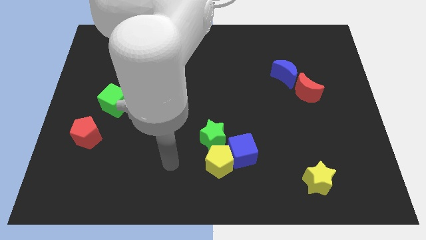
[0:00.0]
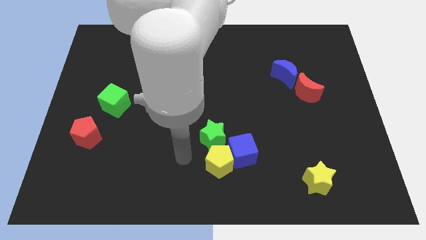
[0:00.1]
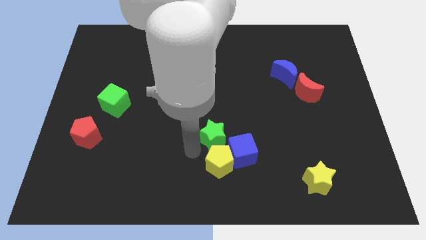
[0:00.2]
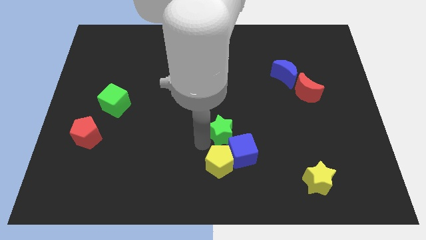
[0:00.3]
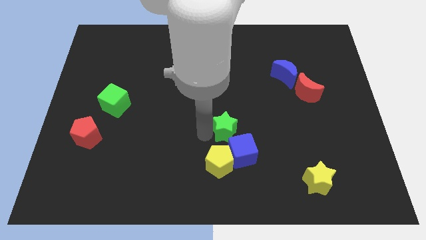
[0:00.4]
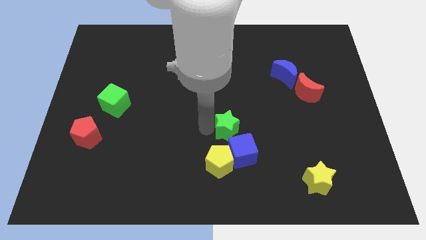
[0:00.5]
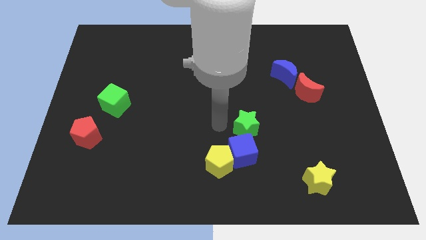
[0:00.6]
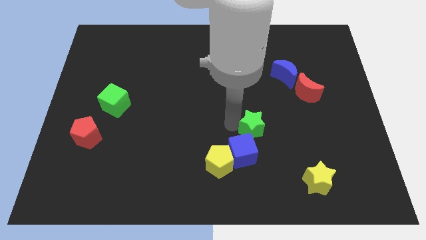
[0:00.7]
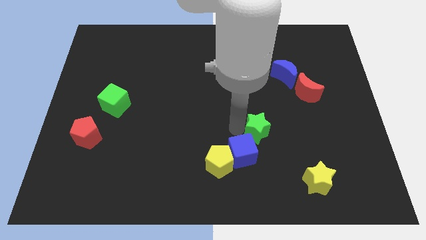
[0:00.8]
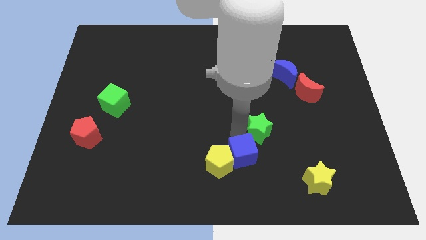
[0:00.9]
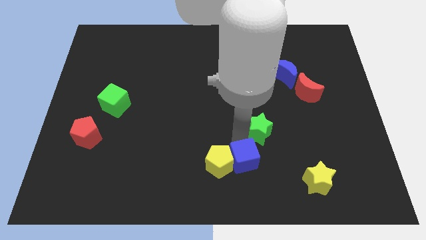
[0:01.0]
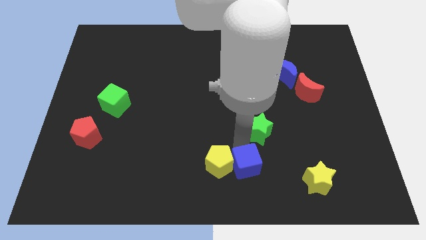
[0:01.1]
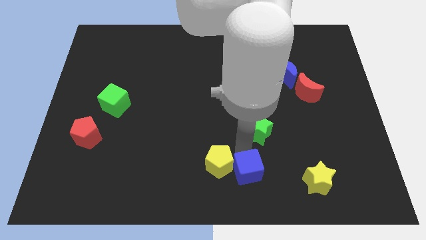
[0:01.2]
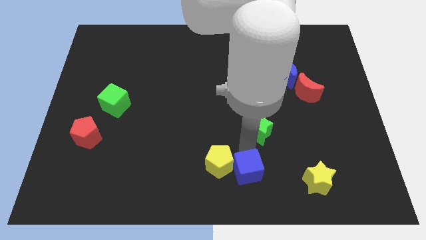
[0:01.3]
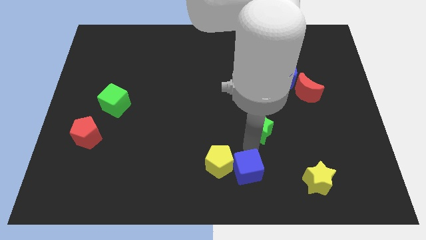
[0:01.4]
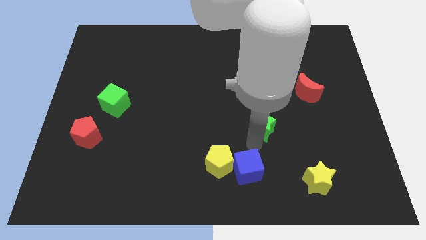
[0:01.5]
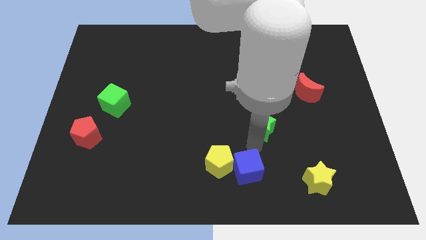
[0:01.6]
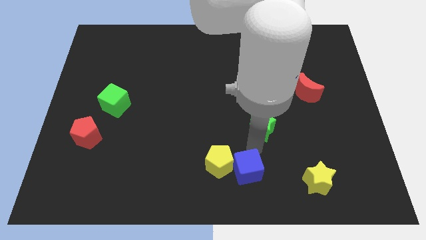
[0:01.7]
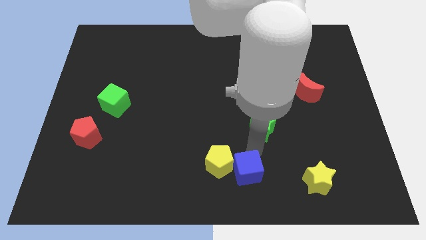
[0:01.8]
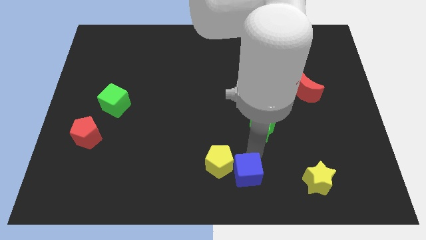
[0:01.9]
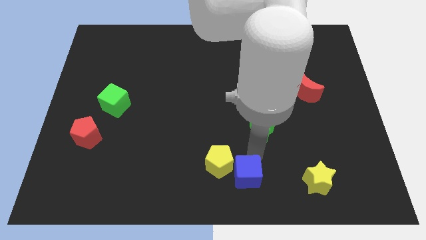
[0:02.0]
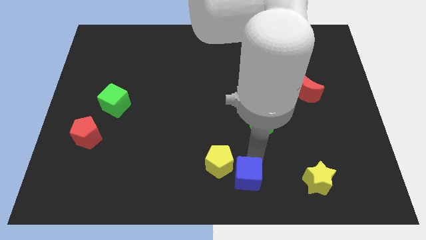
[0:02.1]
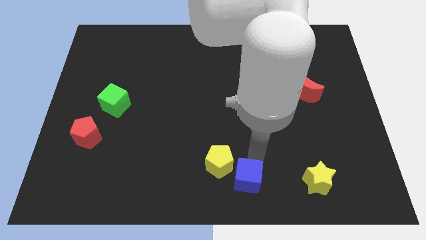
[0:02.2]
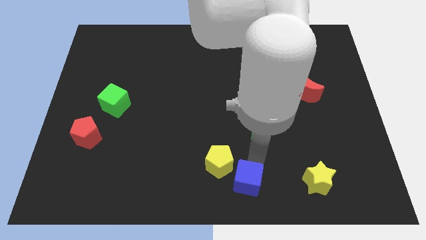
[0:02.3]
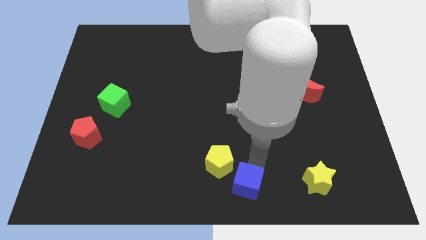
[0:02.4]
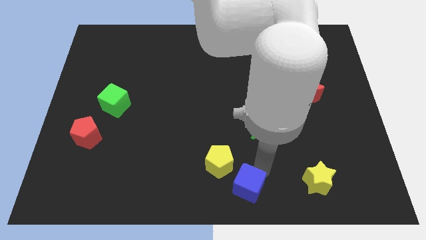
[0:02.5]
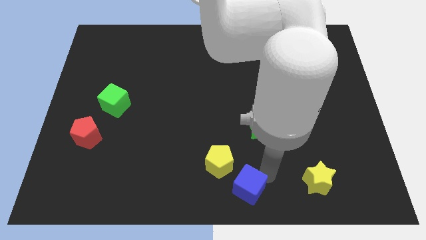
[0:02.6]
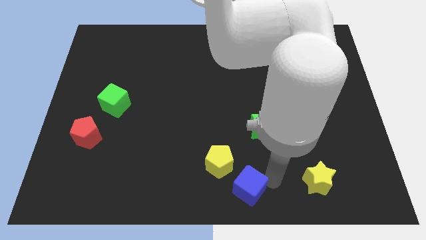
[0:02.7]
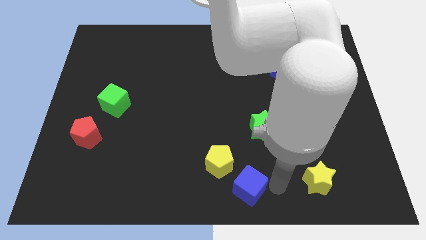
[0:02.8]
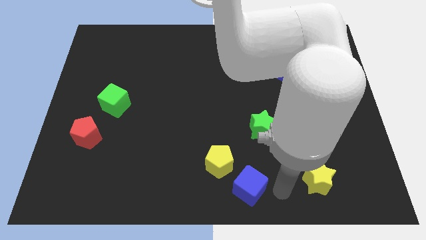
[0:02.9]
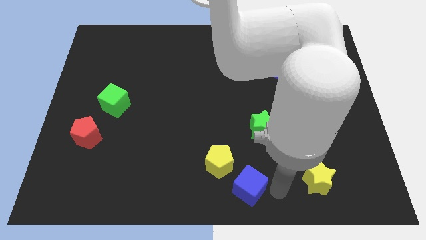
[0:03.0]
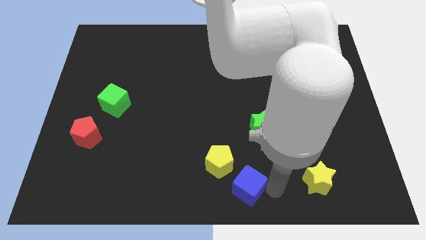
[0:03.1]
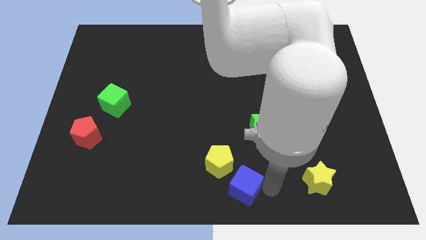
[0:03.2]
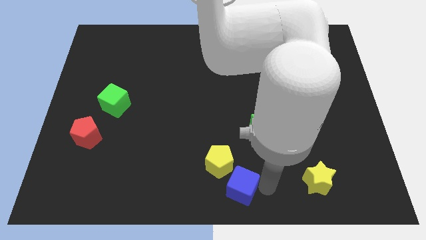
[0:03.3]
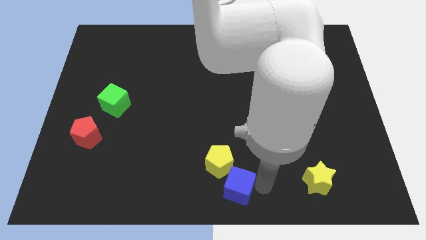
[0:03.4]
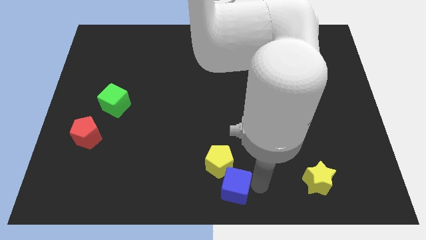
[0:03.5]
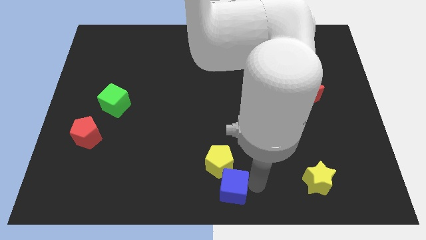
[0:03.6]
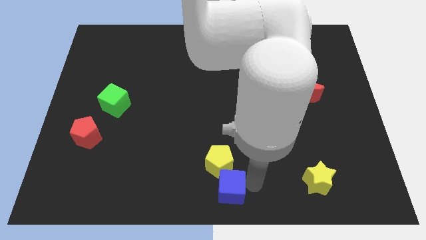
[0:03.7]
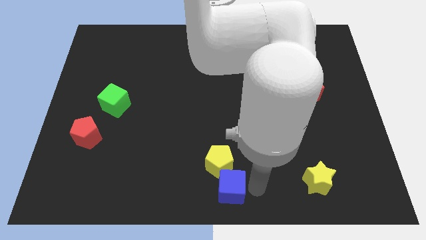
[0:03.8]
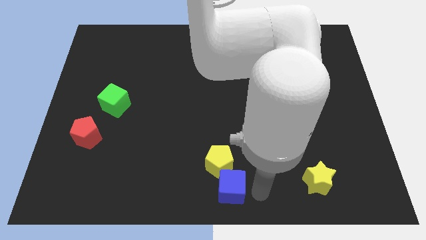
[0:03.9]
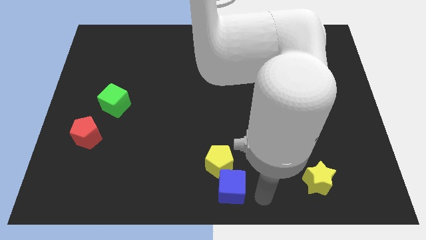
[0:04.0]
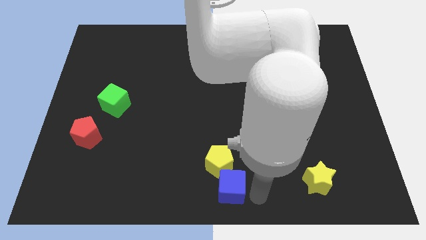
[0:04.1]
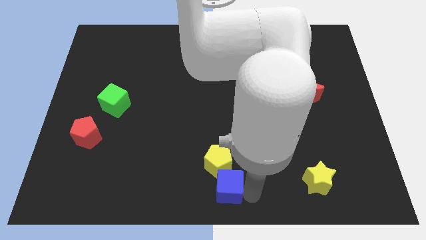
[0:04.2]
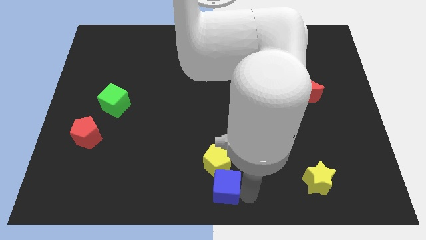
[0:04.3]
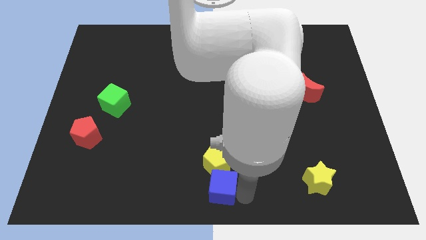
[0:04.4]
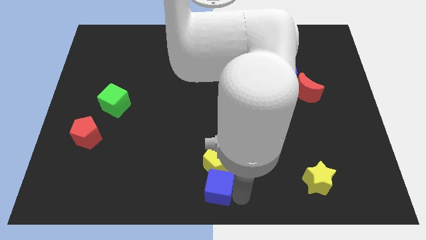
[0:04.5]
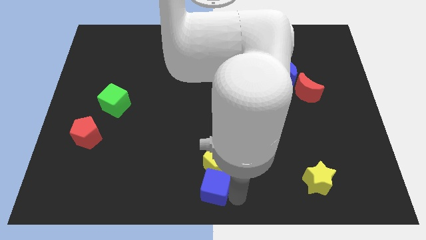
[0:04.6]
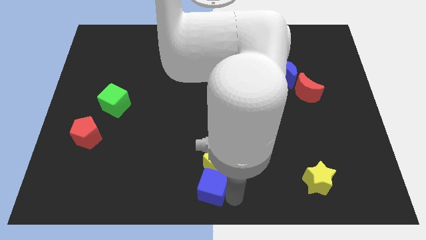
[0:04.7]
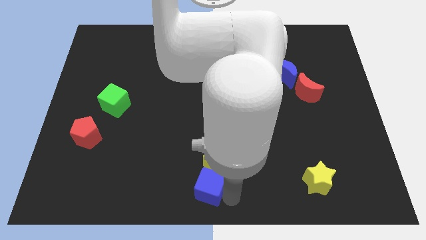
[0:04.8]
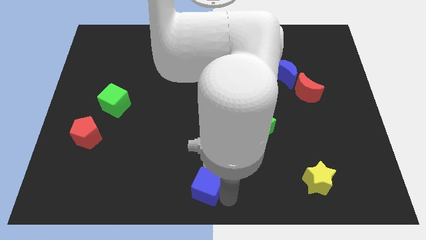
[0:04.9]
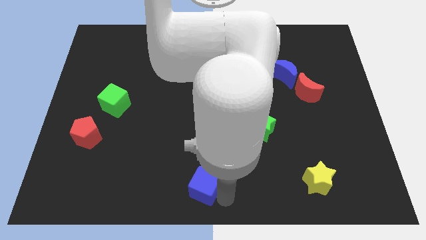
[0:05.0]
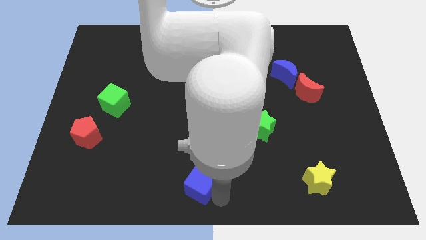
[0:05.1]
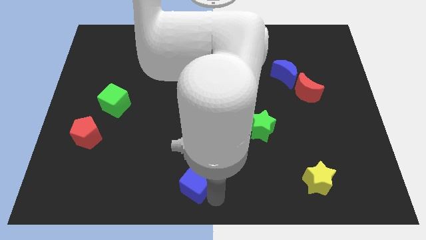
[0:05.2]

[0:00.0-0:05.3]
move the blue cube left of the yellow pentagon

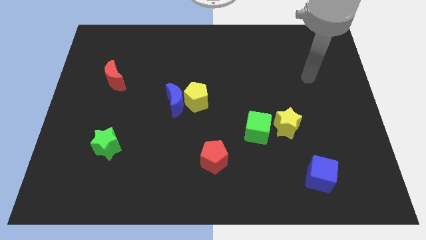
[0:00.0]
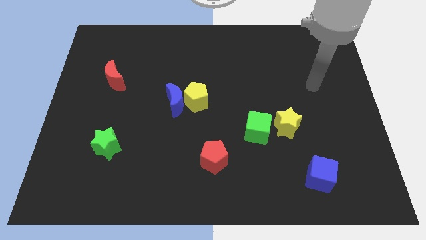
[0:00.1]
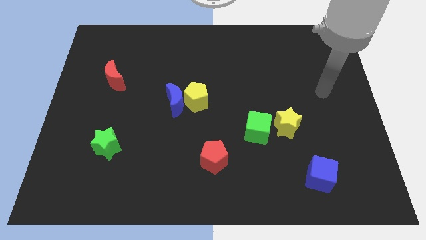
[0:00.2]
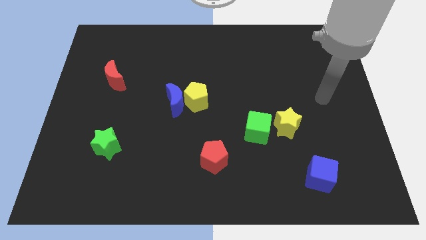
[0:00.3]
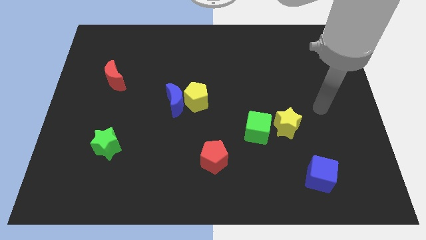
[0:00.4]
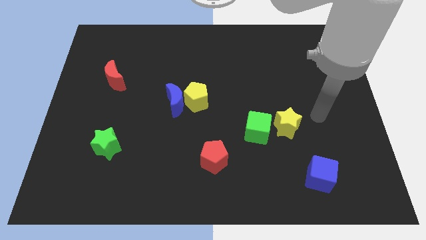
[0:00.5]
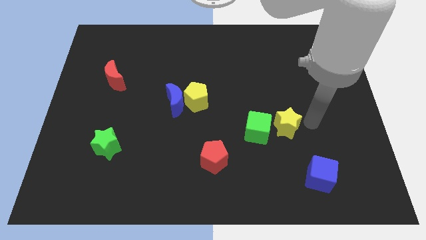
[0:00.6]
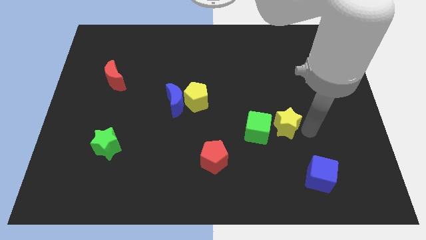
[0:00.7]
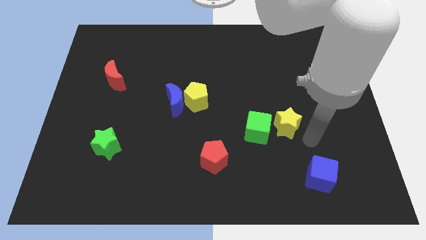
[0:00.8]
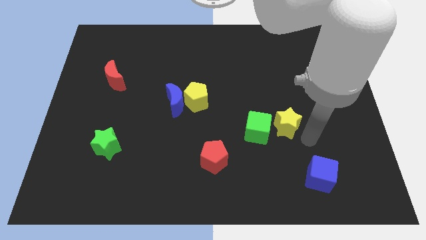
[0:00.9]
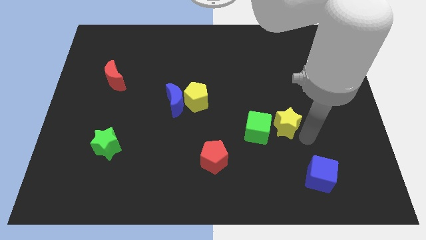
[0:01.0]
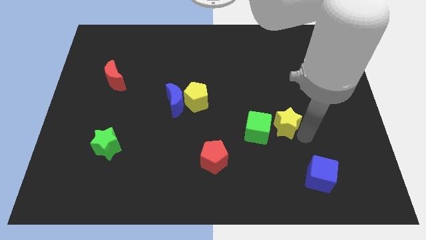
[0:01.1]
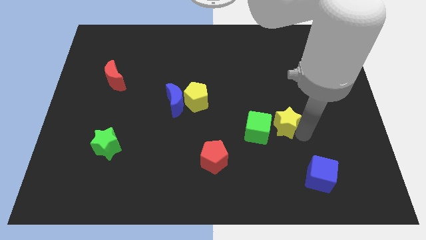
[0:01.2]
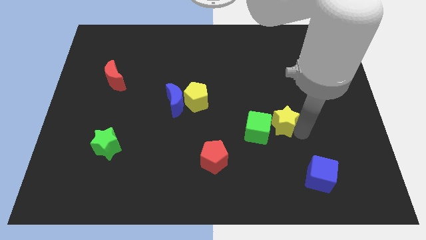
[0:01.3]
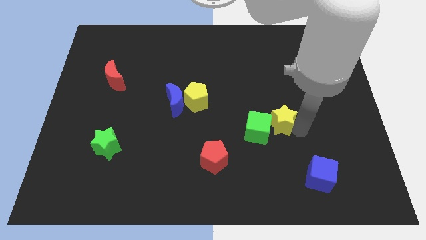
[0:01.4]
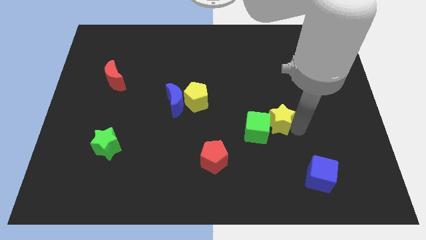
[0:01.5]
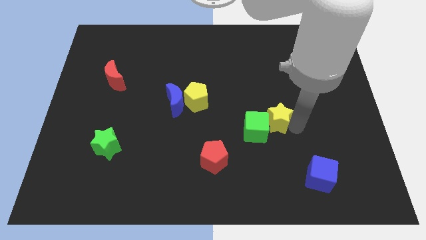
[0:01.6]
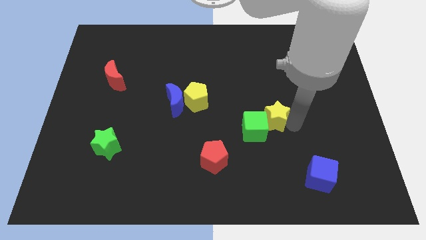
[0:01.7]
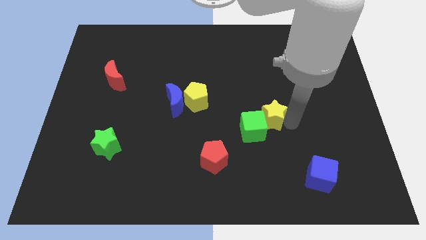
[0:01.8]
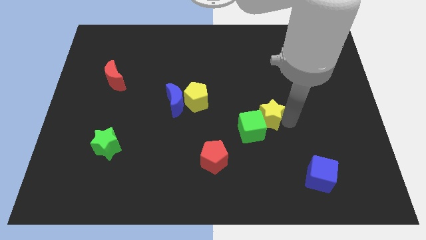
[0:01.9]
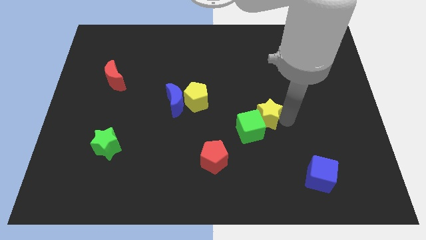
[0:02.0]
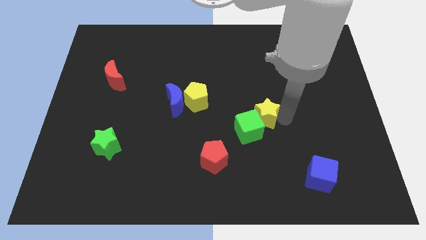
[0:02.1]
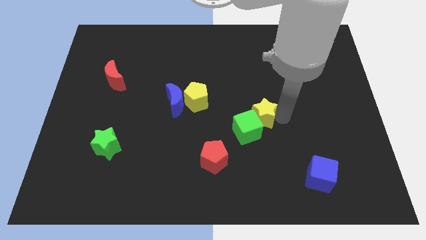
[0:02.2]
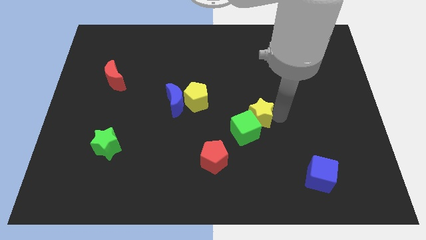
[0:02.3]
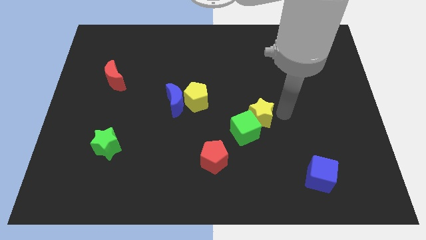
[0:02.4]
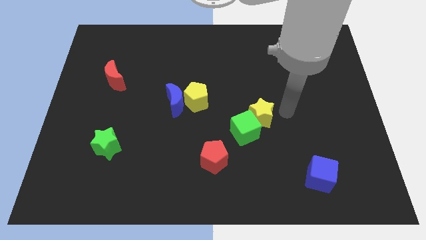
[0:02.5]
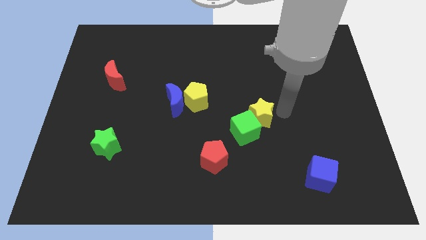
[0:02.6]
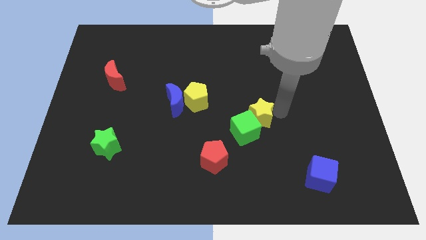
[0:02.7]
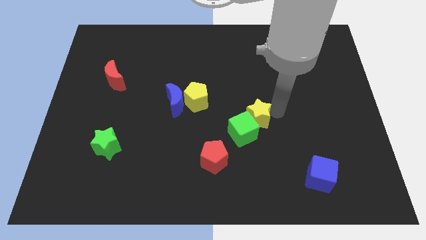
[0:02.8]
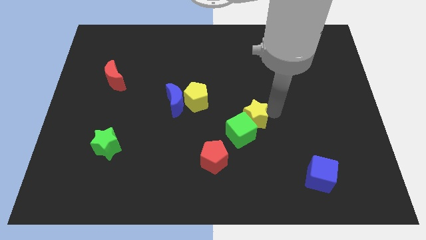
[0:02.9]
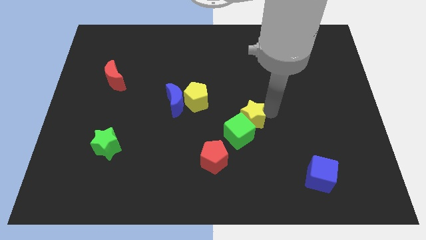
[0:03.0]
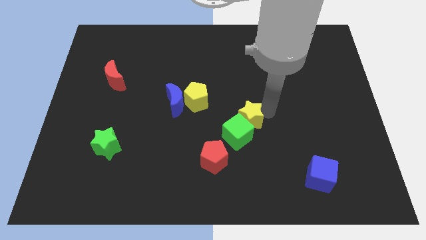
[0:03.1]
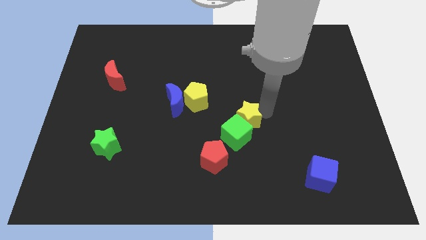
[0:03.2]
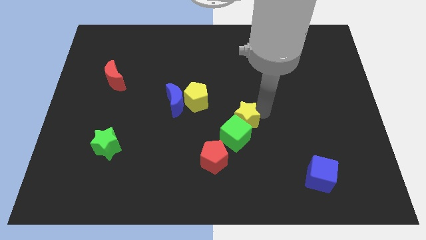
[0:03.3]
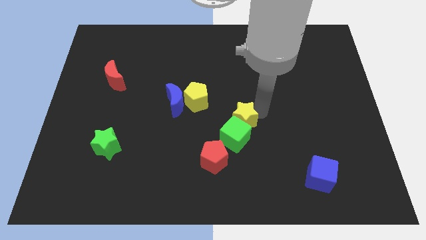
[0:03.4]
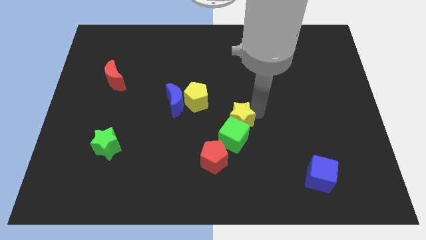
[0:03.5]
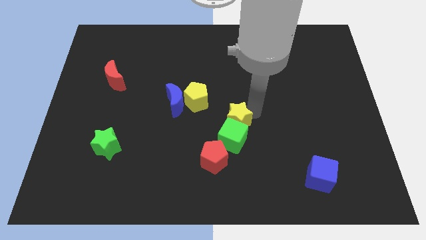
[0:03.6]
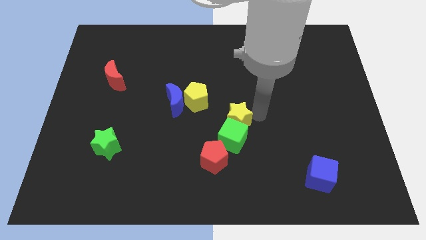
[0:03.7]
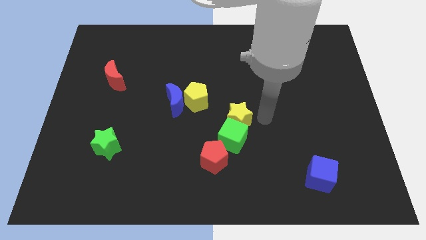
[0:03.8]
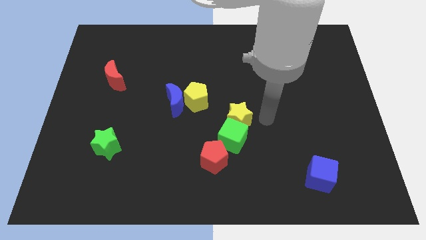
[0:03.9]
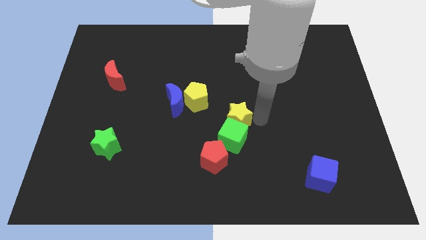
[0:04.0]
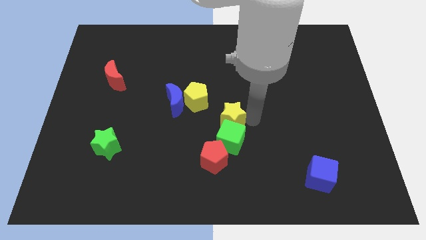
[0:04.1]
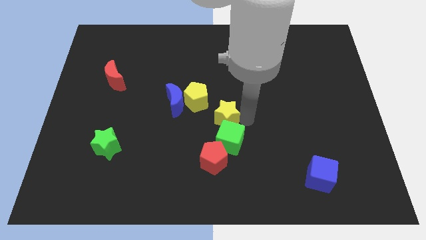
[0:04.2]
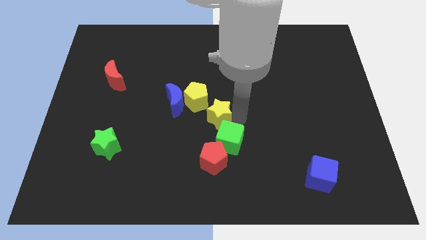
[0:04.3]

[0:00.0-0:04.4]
slide the yellow star to the bottom right side of the blue moon
